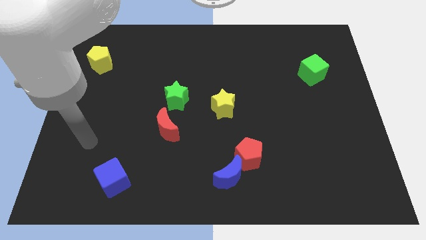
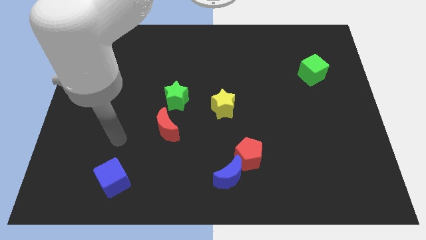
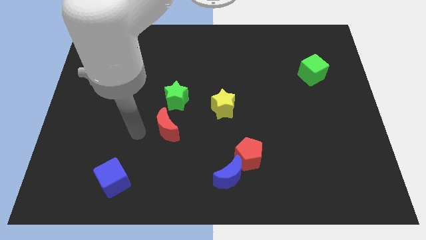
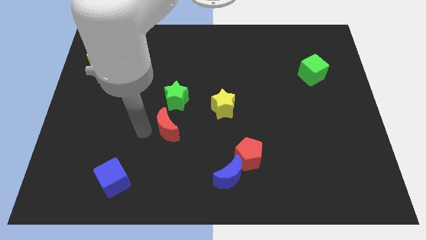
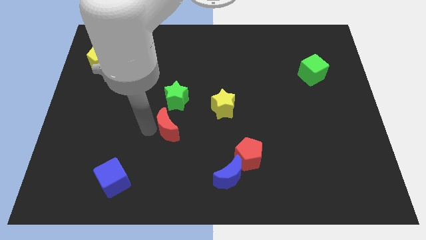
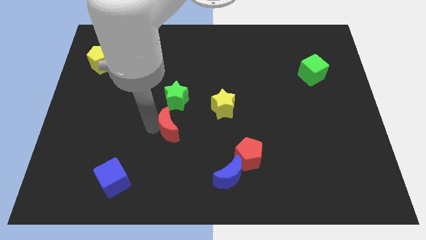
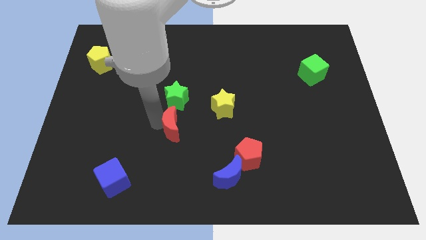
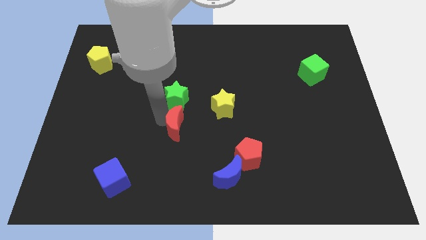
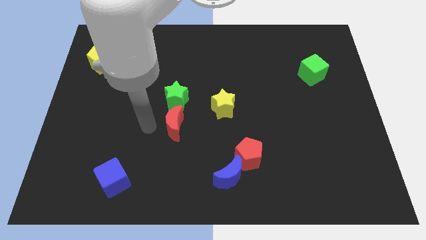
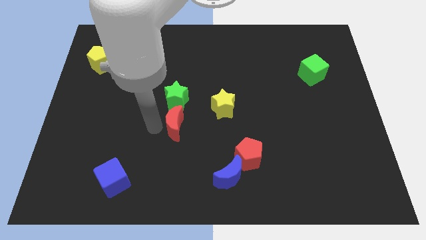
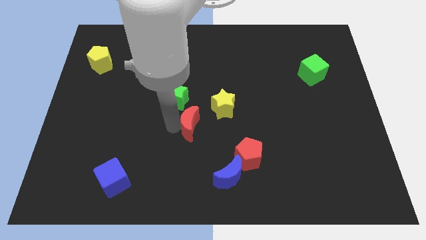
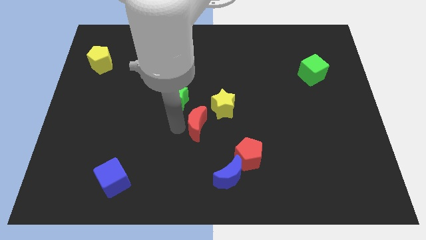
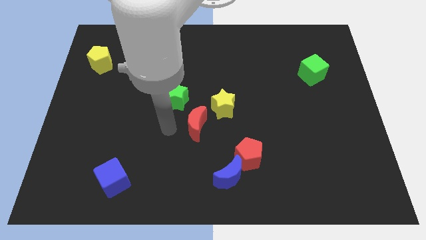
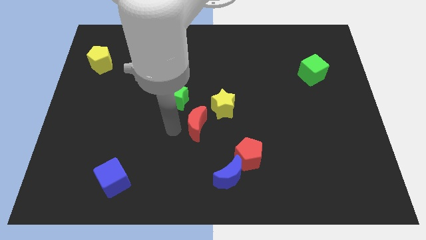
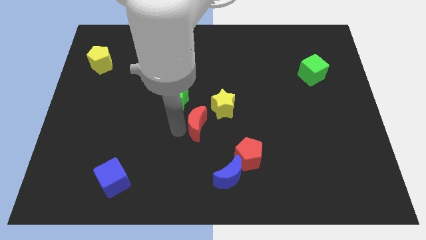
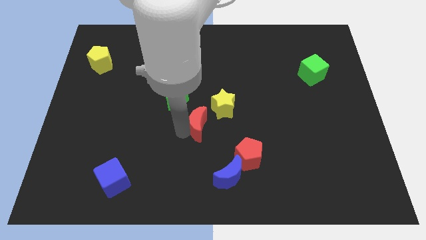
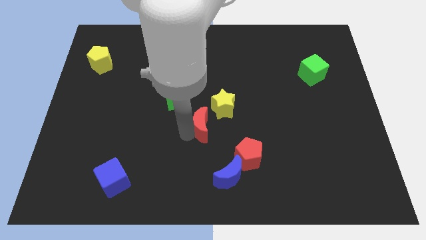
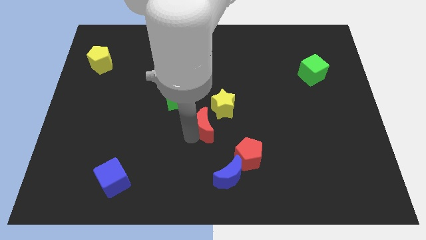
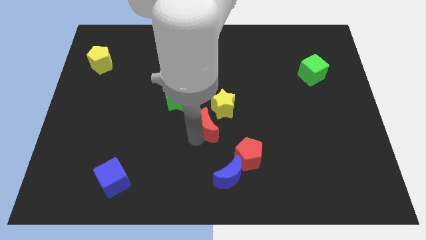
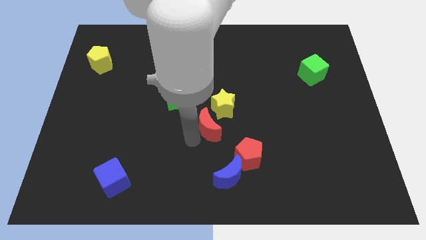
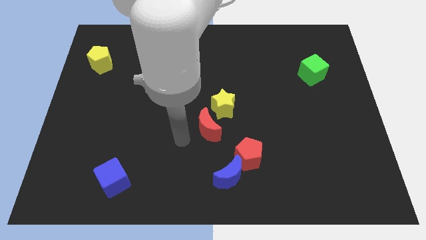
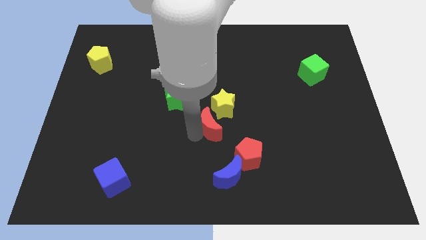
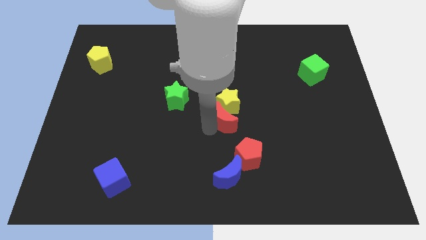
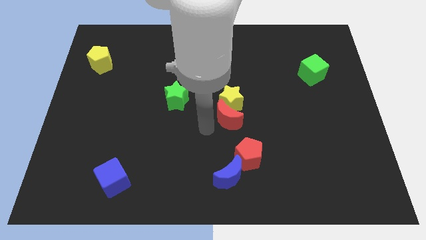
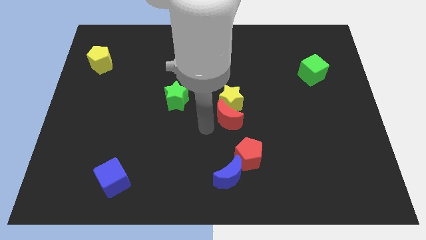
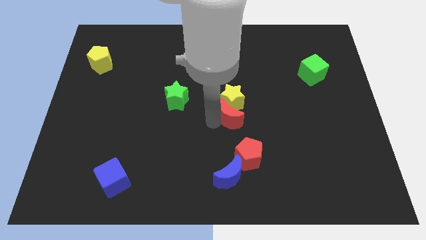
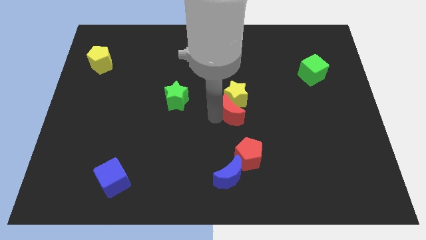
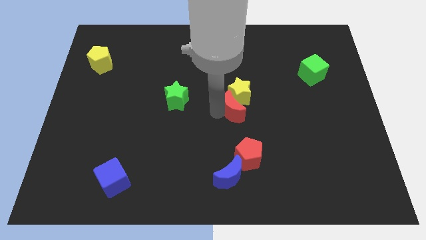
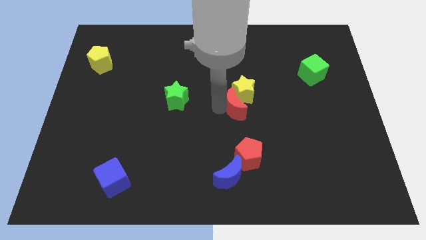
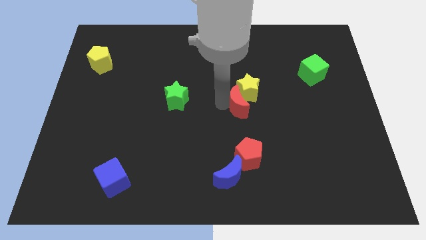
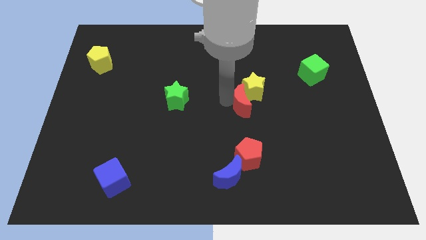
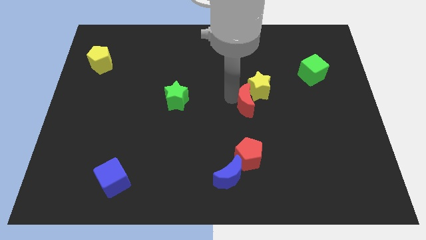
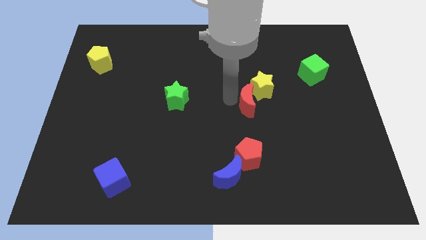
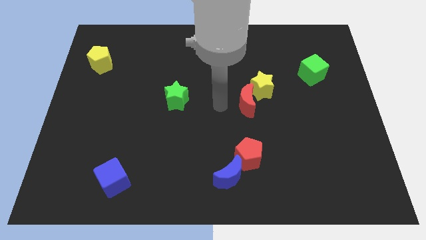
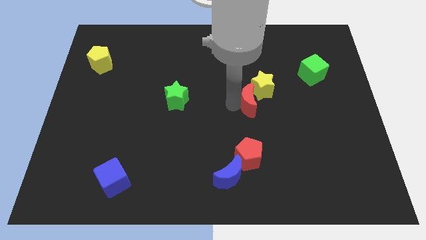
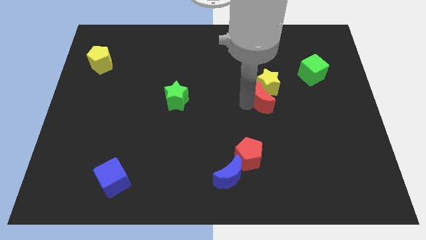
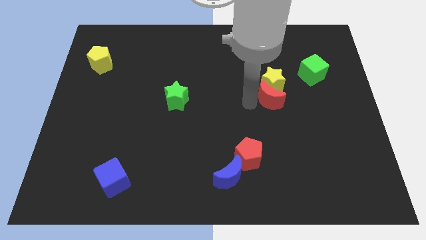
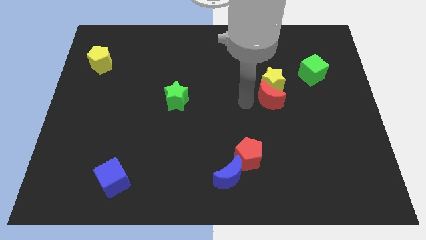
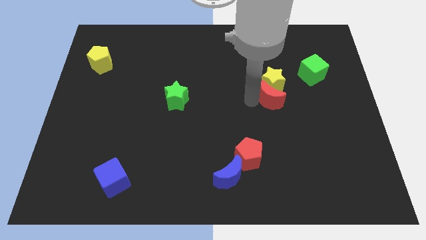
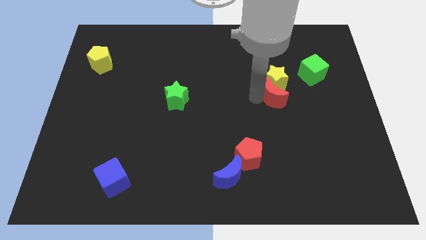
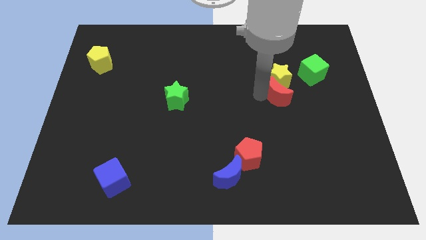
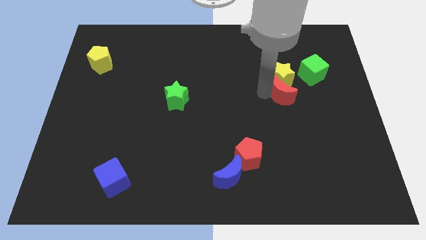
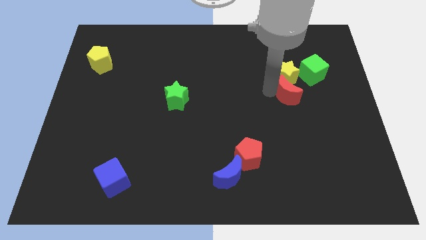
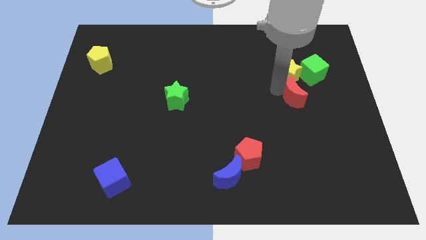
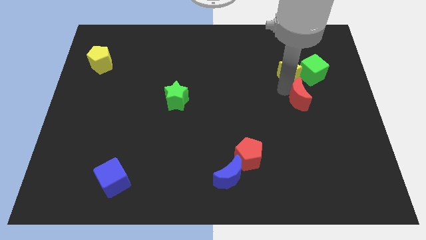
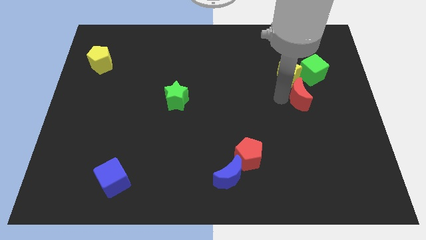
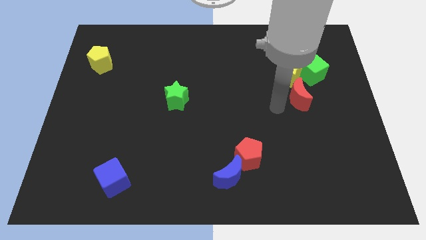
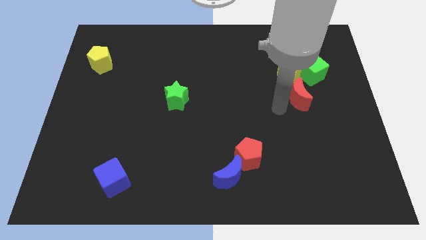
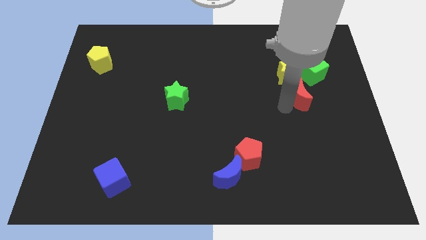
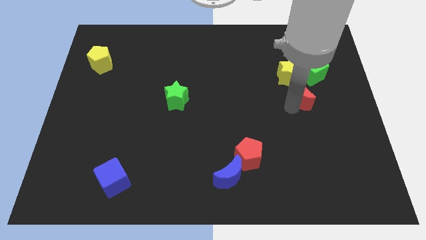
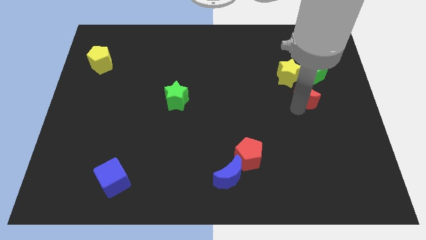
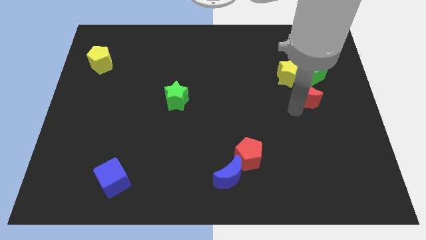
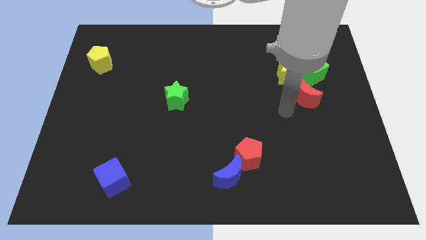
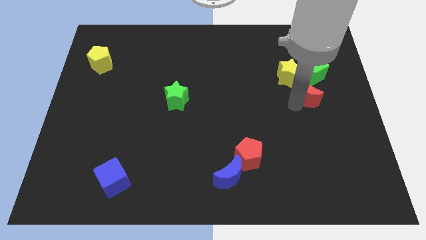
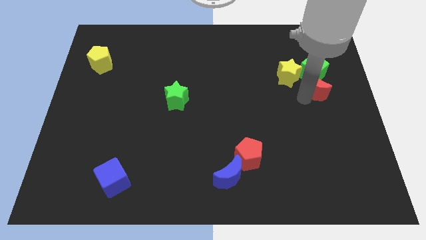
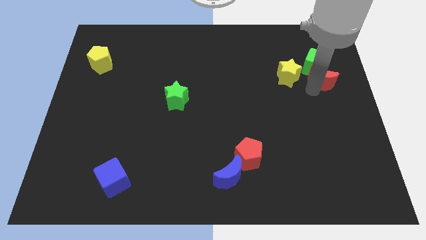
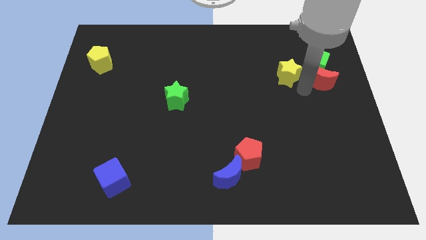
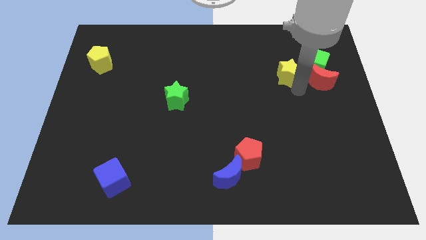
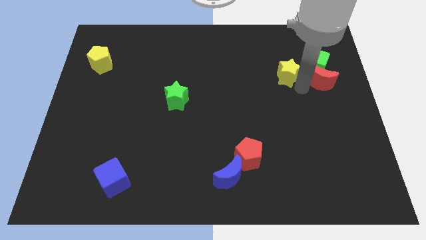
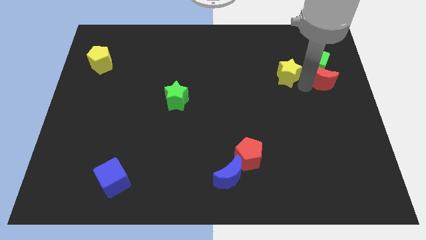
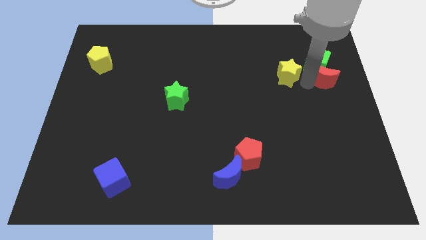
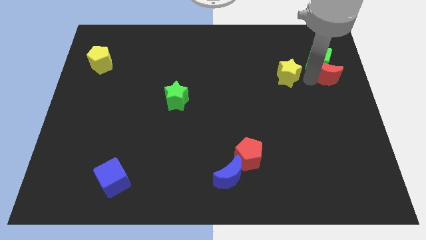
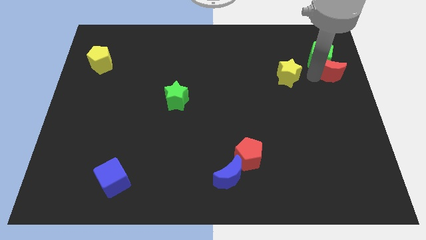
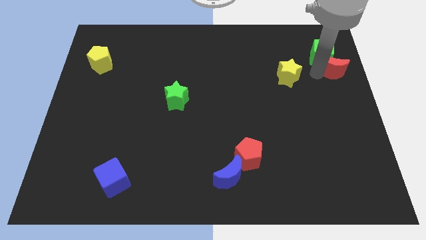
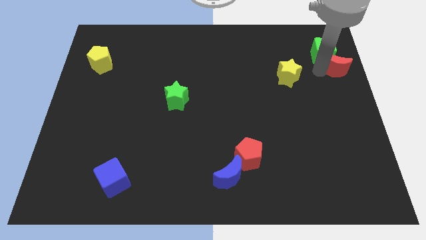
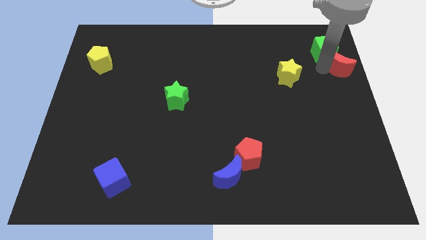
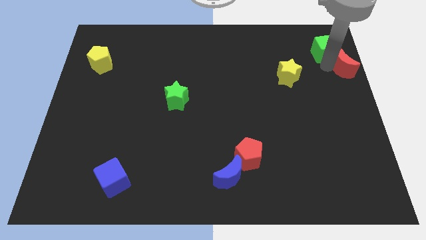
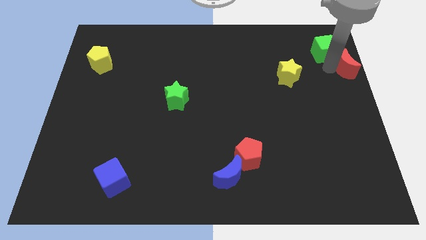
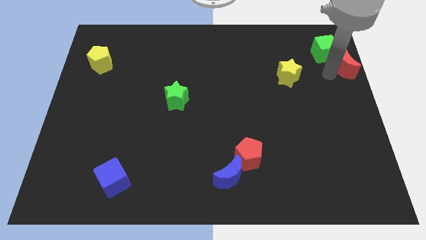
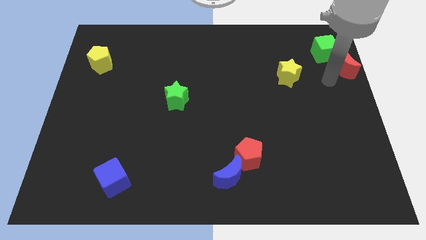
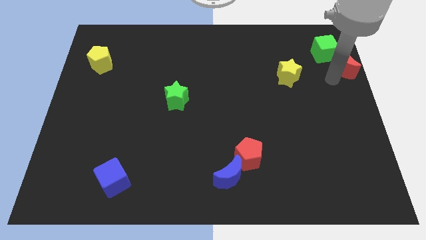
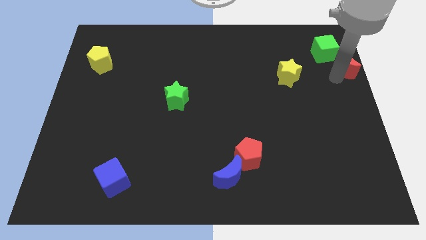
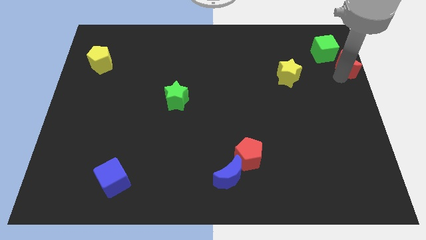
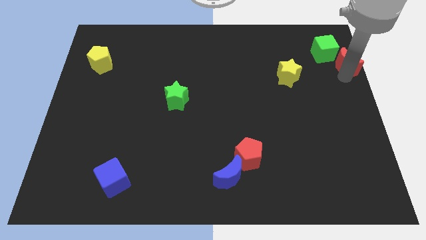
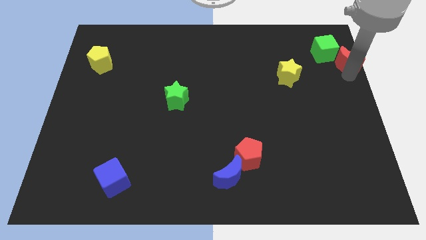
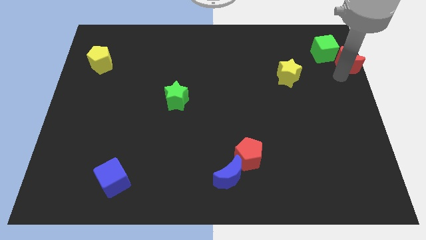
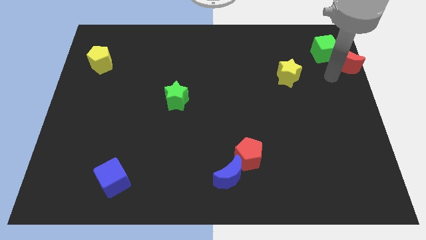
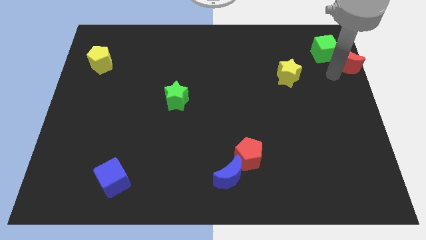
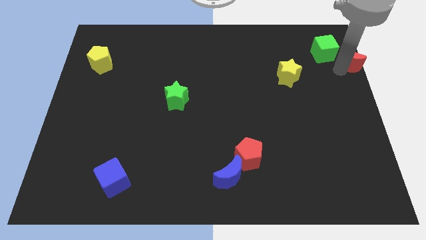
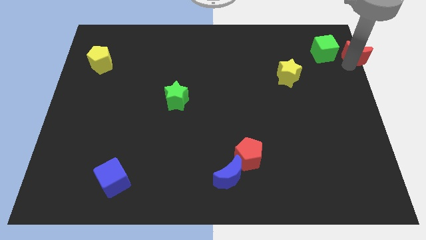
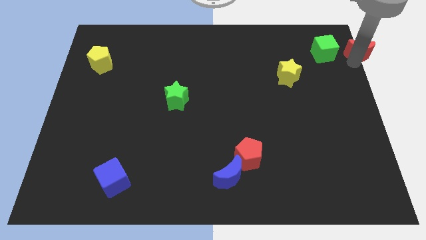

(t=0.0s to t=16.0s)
slide the red moon to the top right corner
